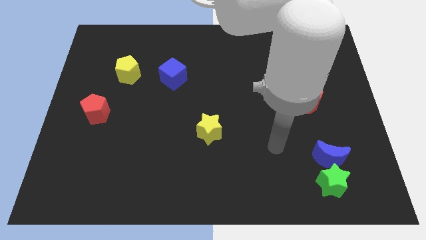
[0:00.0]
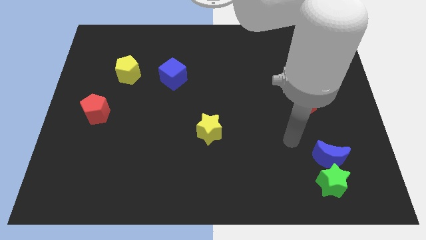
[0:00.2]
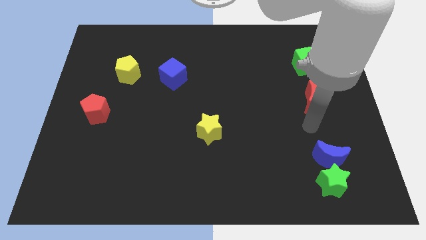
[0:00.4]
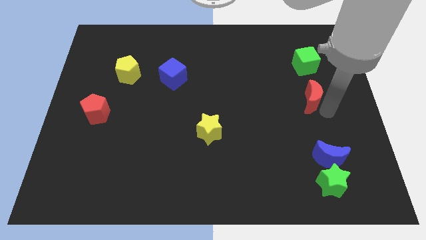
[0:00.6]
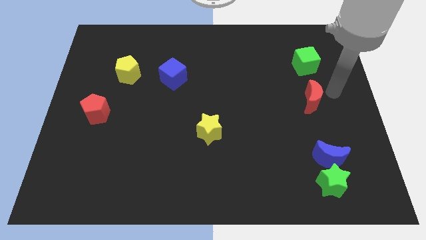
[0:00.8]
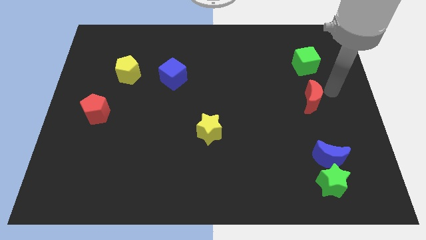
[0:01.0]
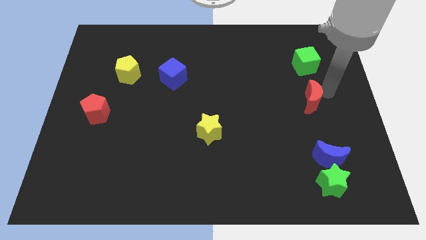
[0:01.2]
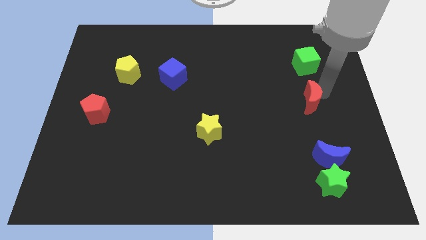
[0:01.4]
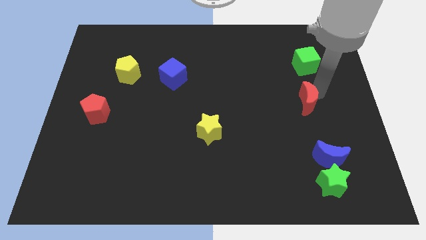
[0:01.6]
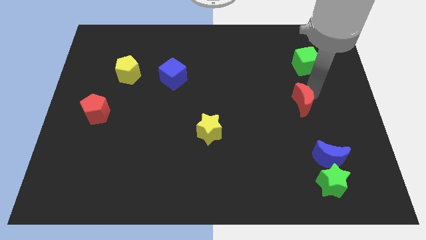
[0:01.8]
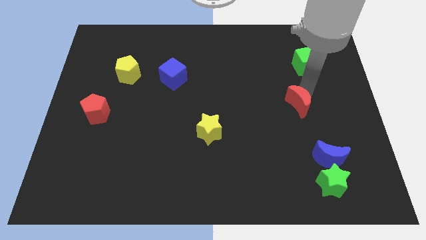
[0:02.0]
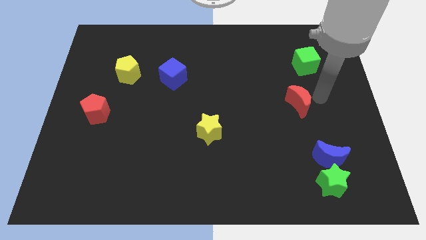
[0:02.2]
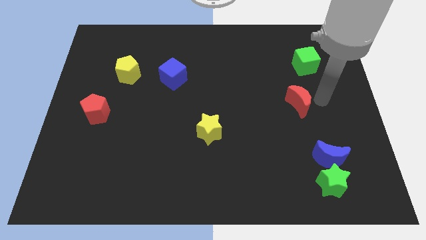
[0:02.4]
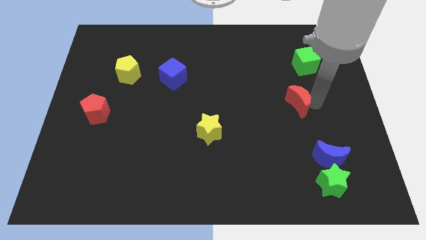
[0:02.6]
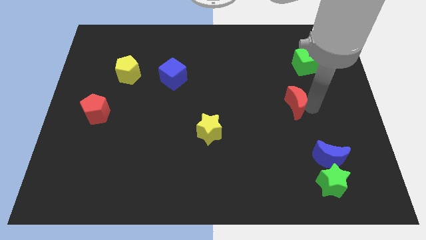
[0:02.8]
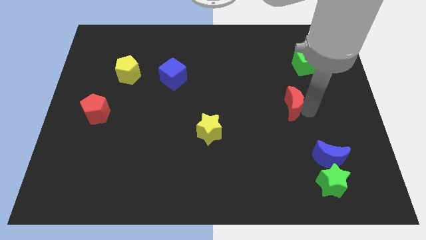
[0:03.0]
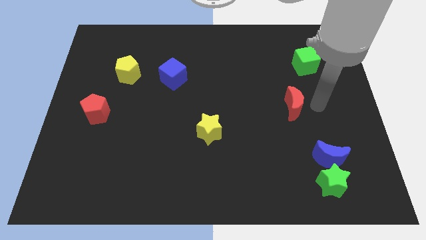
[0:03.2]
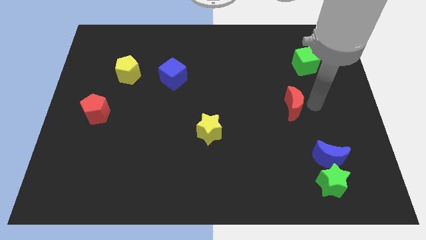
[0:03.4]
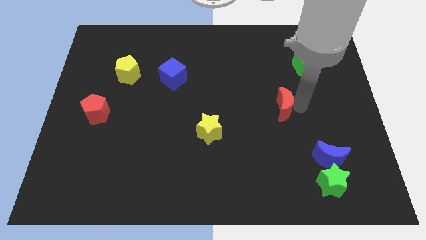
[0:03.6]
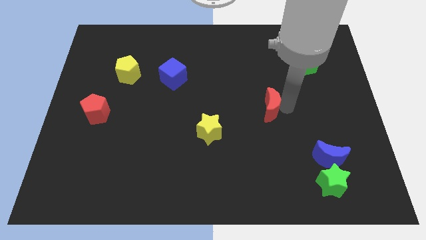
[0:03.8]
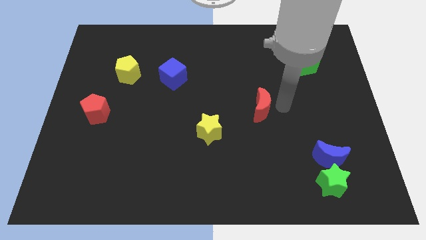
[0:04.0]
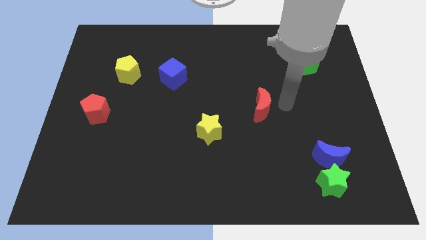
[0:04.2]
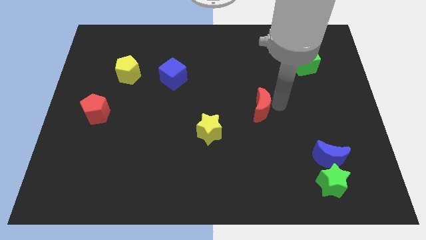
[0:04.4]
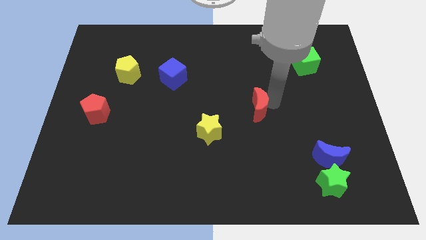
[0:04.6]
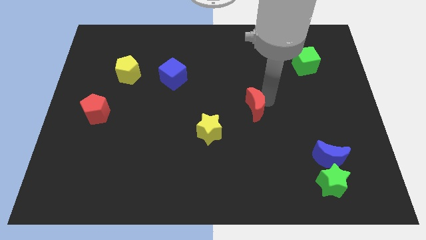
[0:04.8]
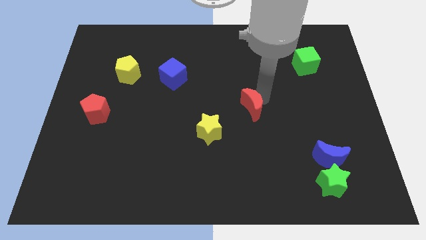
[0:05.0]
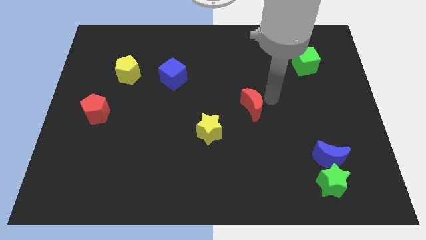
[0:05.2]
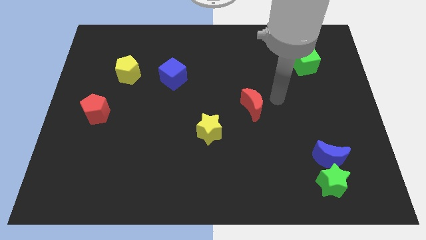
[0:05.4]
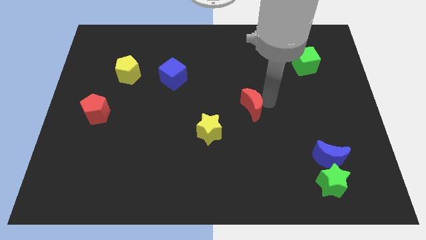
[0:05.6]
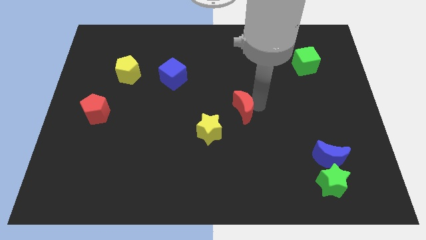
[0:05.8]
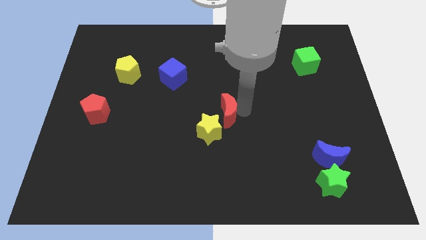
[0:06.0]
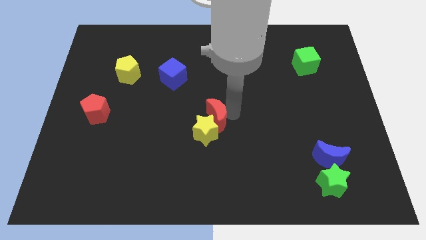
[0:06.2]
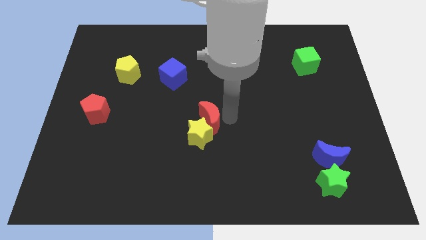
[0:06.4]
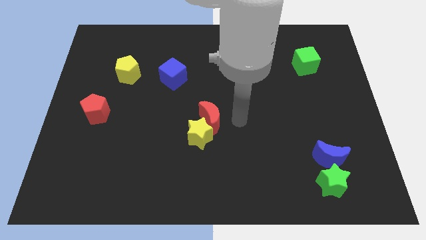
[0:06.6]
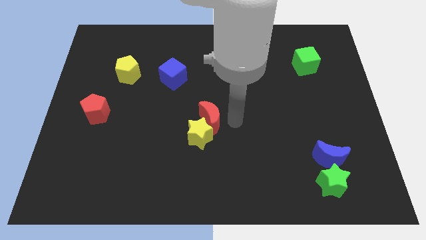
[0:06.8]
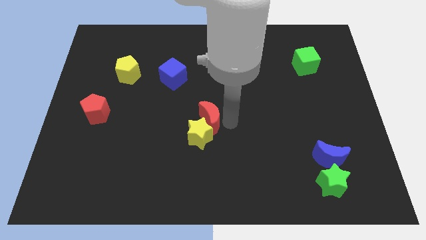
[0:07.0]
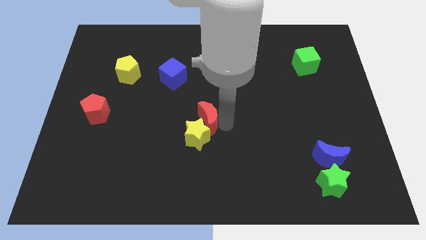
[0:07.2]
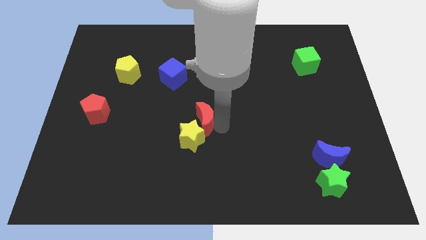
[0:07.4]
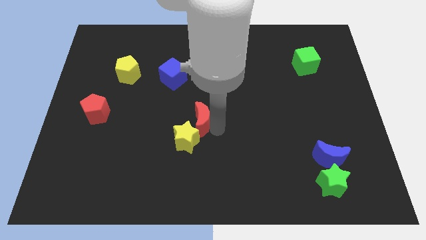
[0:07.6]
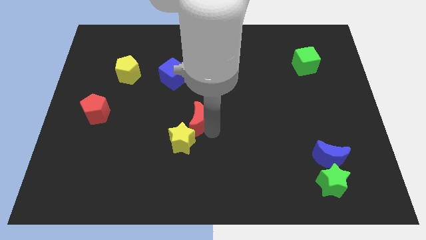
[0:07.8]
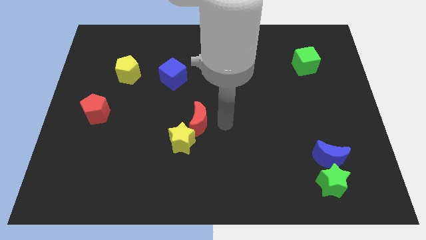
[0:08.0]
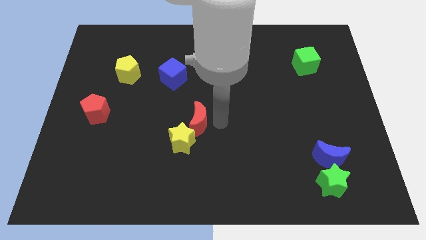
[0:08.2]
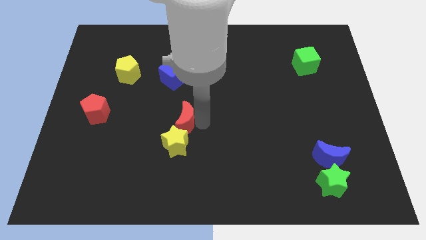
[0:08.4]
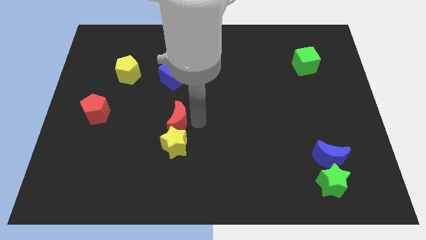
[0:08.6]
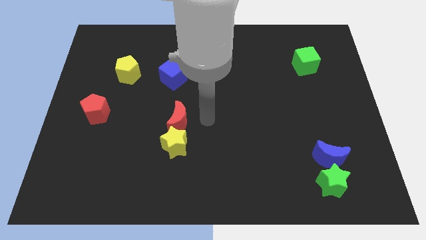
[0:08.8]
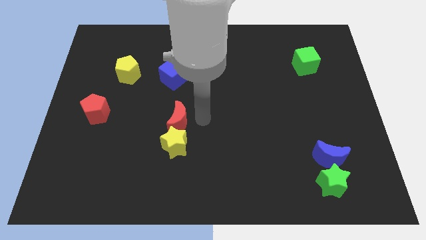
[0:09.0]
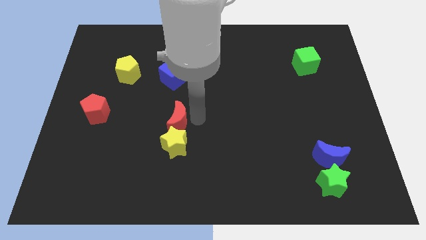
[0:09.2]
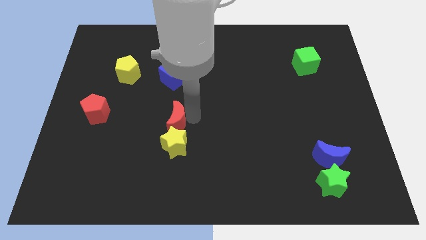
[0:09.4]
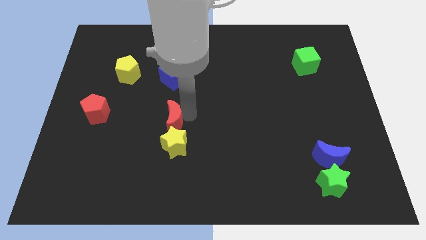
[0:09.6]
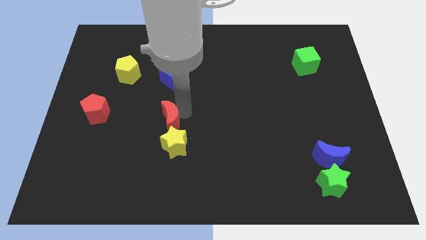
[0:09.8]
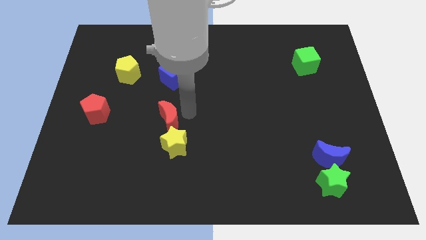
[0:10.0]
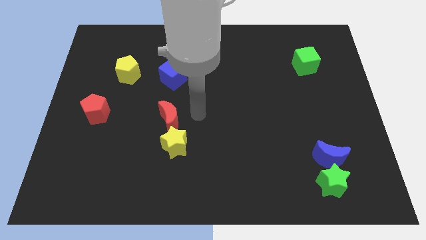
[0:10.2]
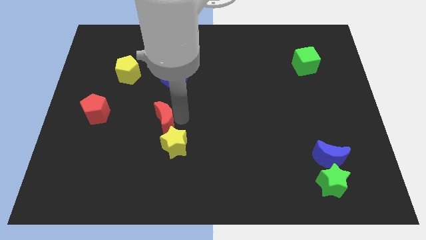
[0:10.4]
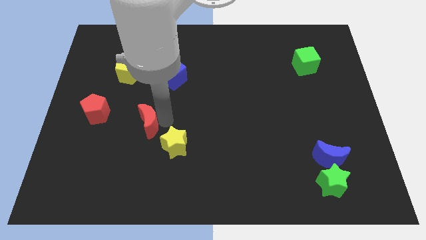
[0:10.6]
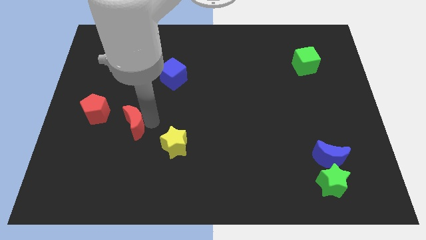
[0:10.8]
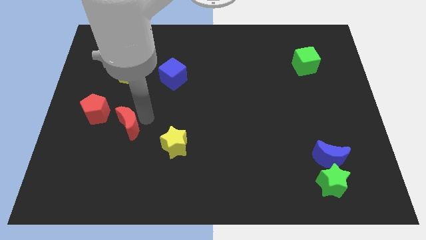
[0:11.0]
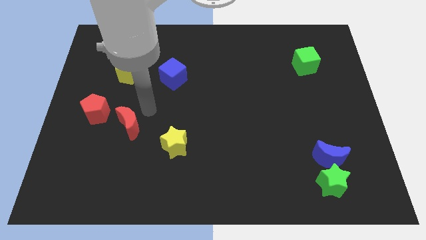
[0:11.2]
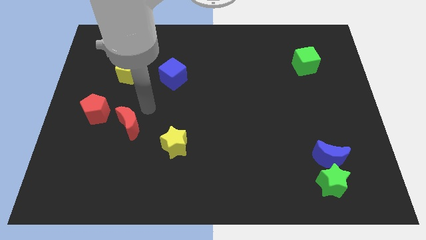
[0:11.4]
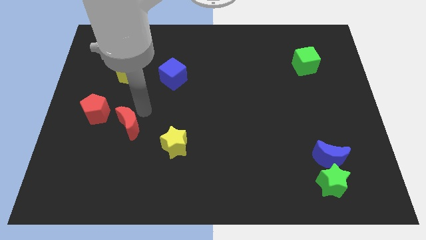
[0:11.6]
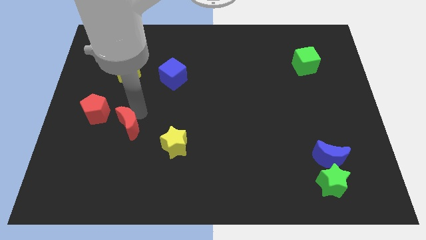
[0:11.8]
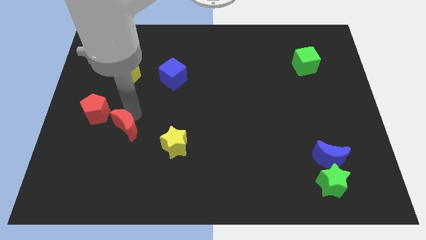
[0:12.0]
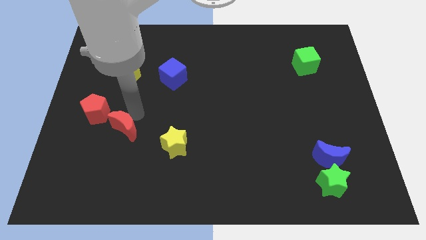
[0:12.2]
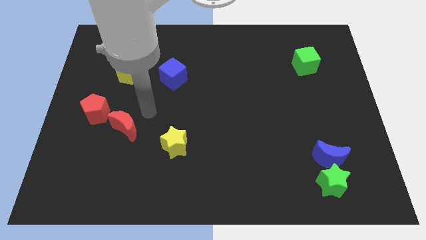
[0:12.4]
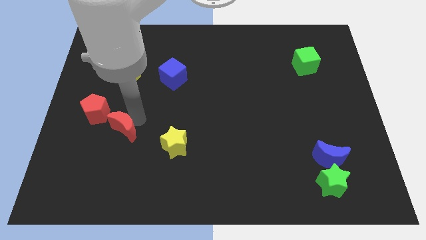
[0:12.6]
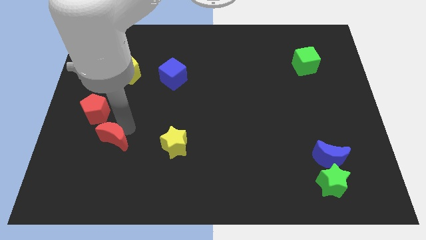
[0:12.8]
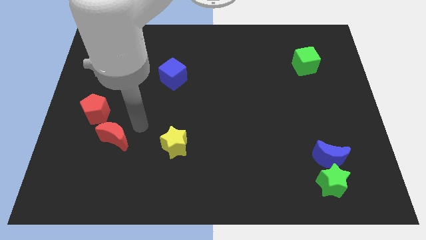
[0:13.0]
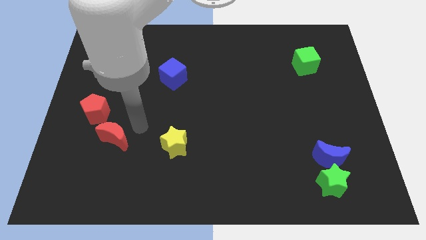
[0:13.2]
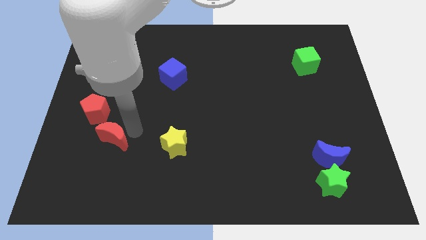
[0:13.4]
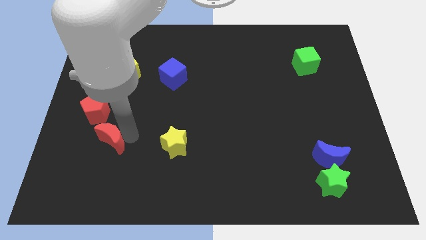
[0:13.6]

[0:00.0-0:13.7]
slide the red moon below the red pentagon

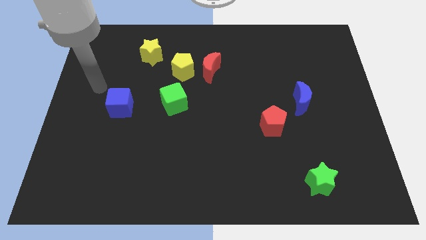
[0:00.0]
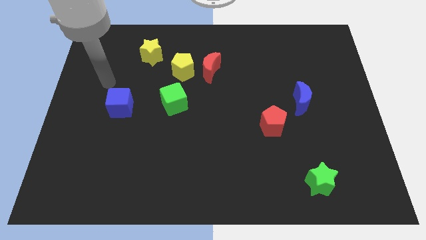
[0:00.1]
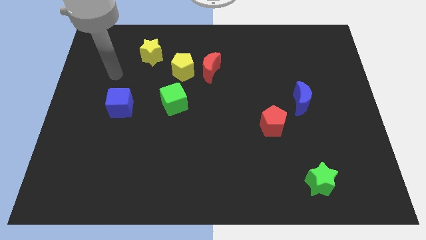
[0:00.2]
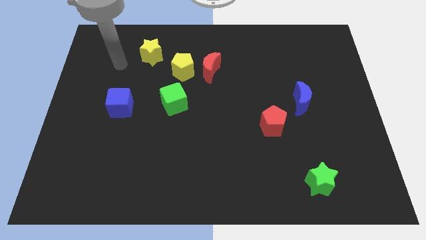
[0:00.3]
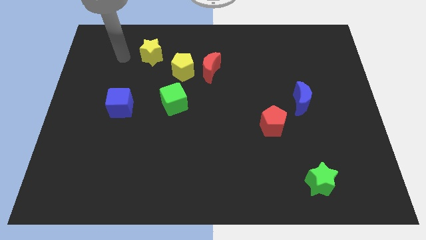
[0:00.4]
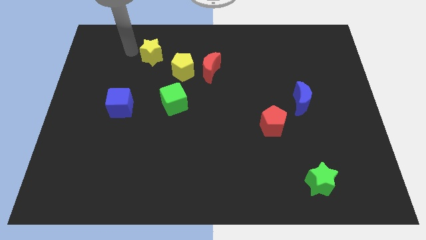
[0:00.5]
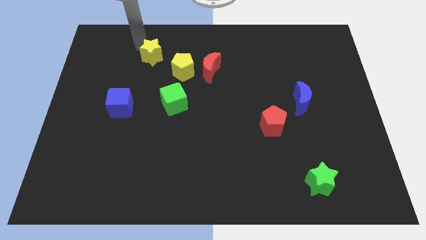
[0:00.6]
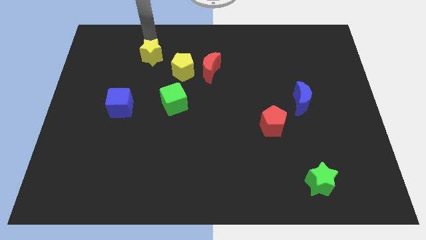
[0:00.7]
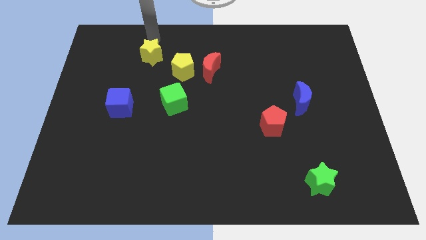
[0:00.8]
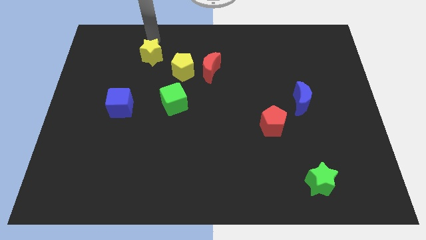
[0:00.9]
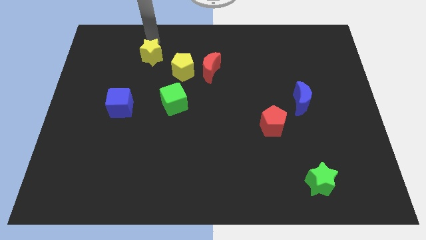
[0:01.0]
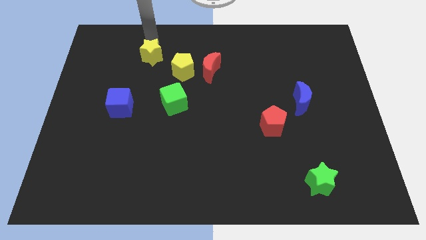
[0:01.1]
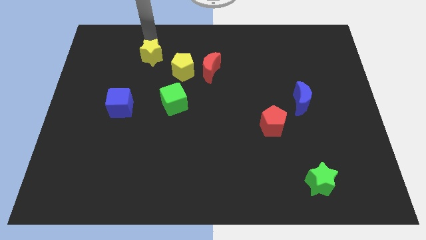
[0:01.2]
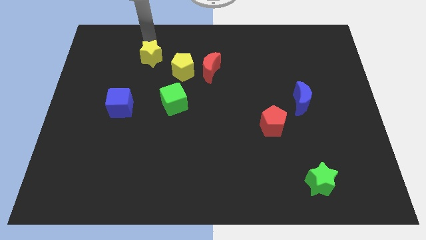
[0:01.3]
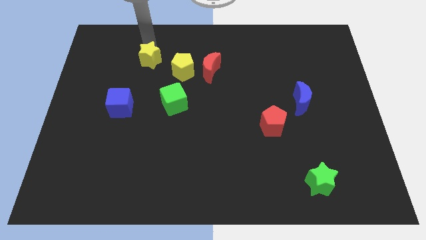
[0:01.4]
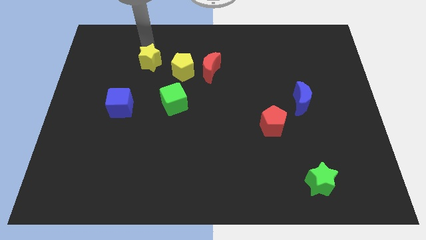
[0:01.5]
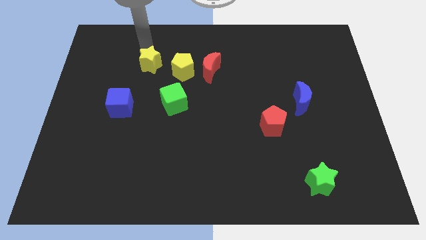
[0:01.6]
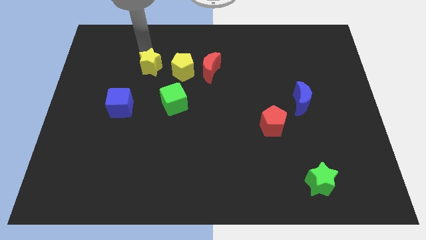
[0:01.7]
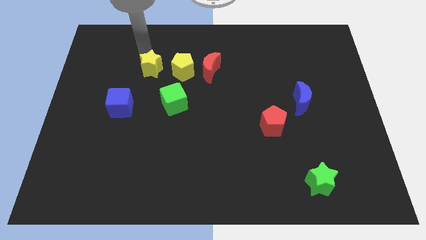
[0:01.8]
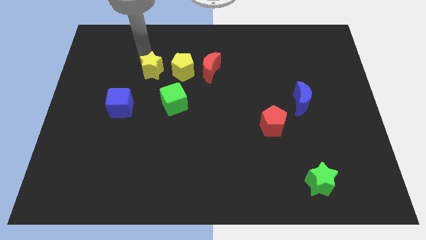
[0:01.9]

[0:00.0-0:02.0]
push the yellow star diagonally up and to the left of the green cube
